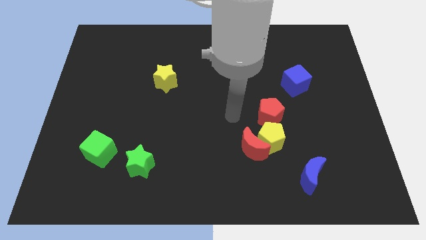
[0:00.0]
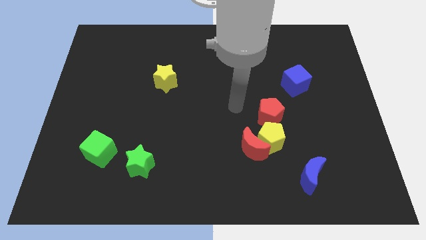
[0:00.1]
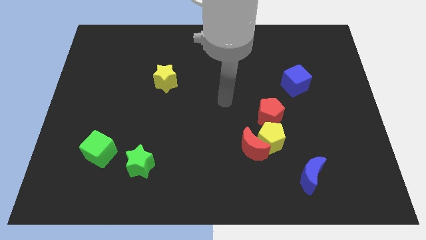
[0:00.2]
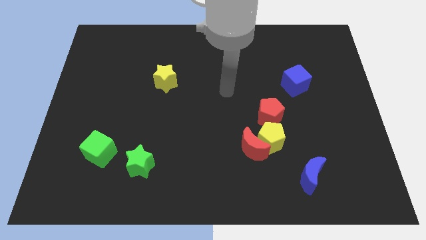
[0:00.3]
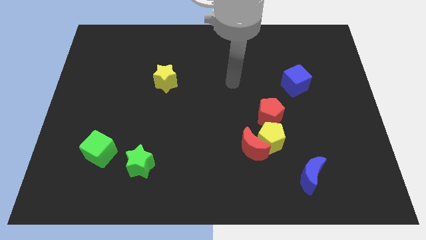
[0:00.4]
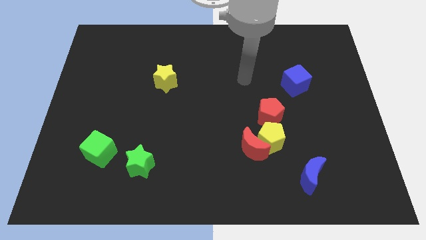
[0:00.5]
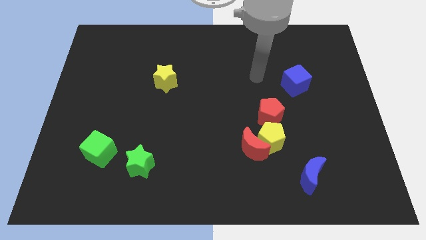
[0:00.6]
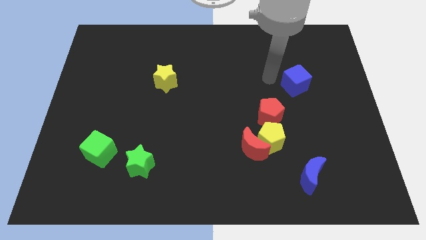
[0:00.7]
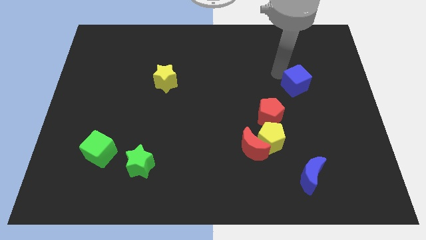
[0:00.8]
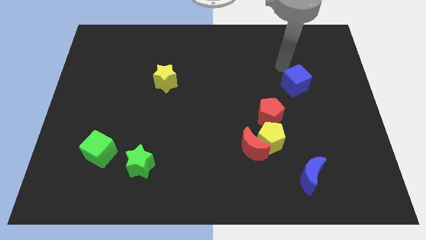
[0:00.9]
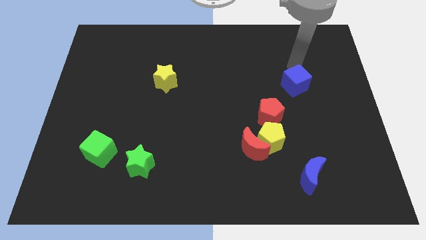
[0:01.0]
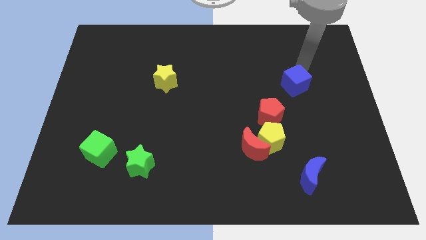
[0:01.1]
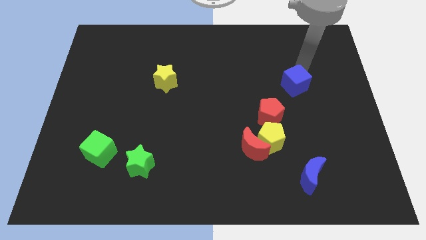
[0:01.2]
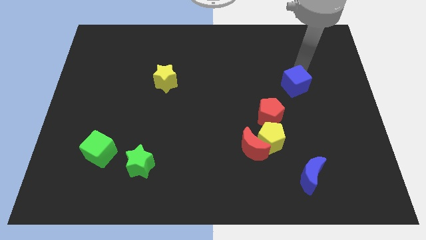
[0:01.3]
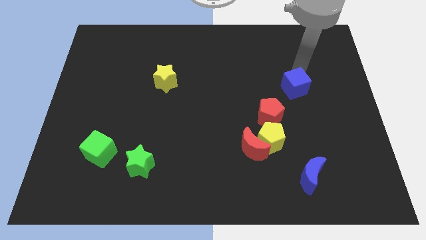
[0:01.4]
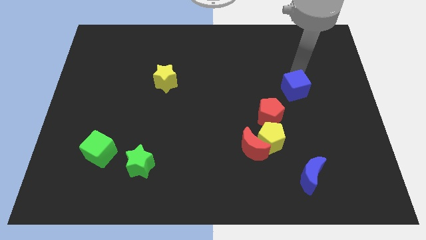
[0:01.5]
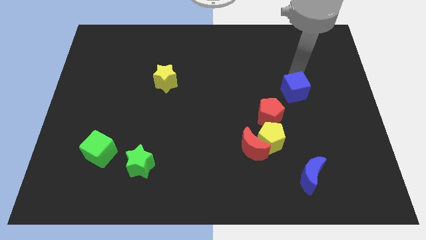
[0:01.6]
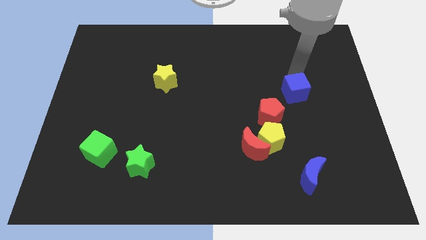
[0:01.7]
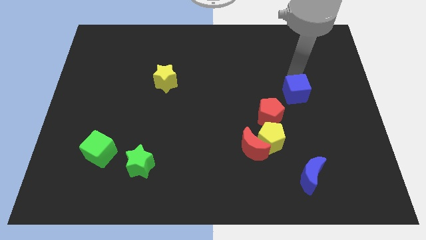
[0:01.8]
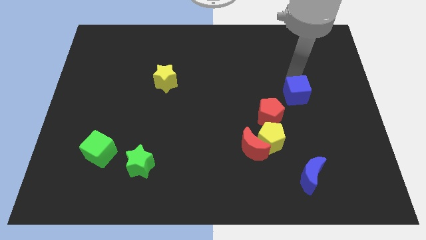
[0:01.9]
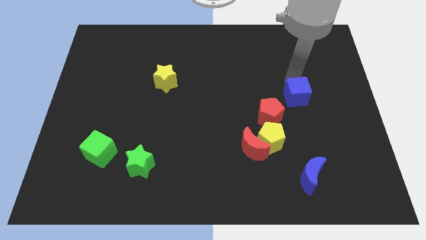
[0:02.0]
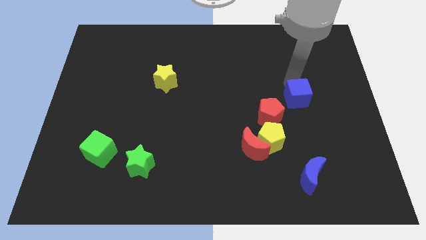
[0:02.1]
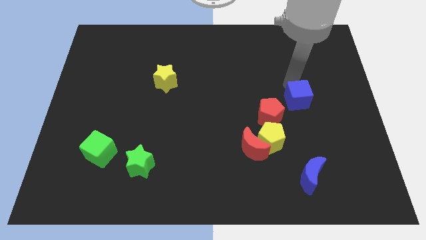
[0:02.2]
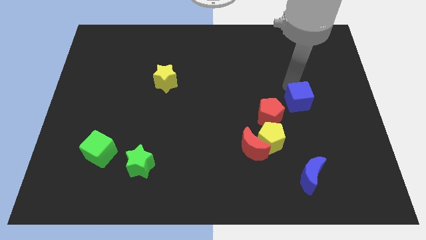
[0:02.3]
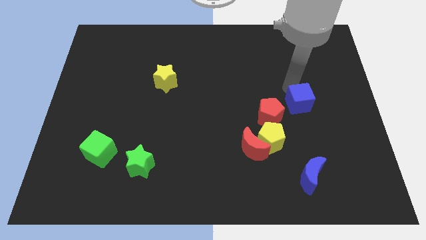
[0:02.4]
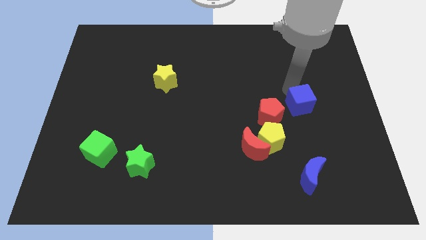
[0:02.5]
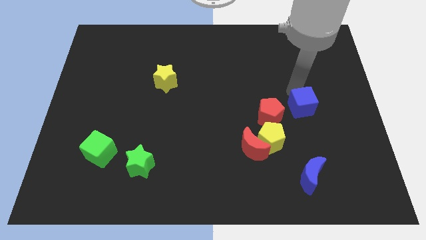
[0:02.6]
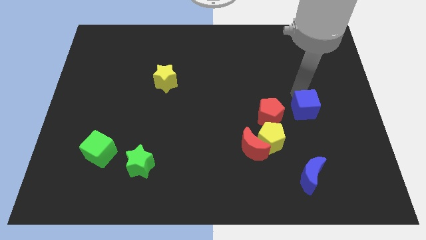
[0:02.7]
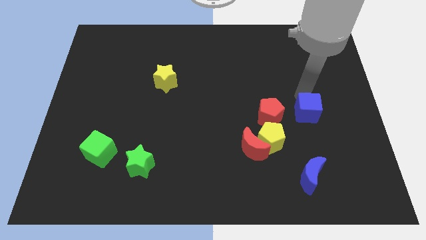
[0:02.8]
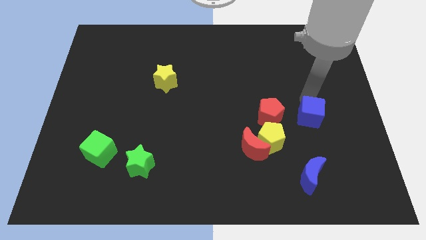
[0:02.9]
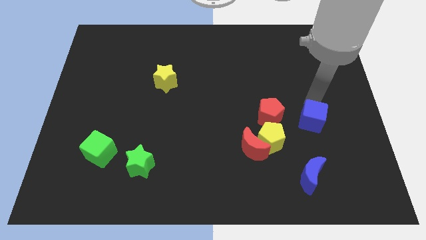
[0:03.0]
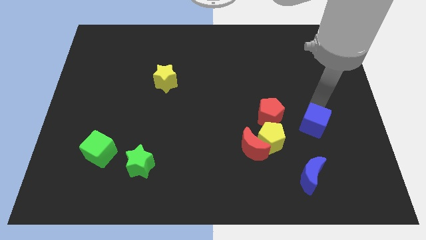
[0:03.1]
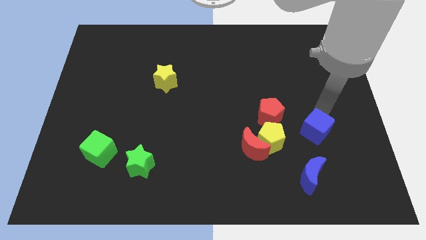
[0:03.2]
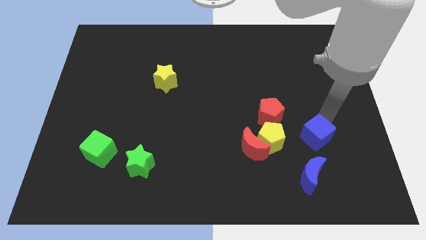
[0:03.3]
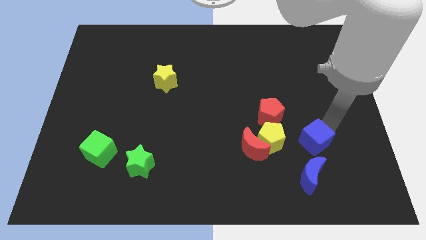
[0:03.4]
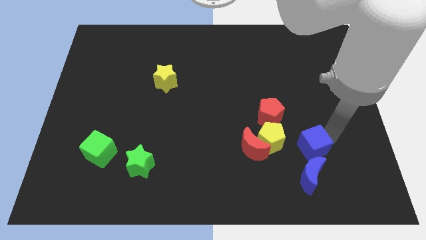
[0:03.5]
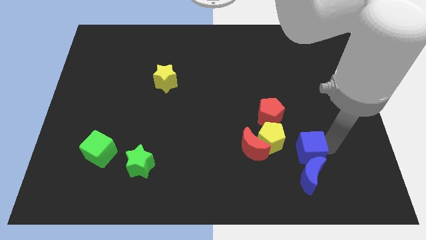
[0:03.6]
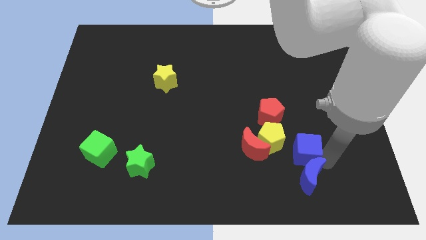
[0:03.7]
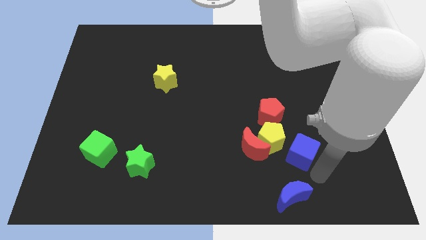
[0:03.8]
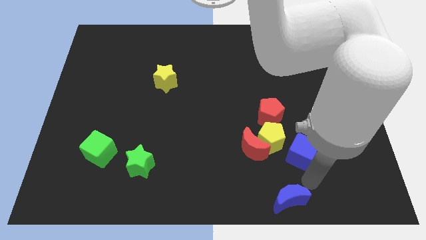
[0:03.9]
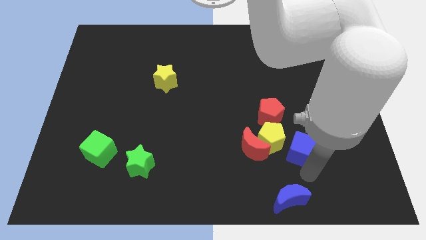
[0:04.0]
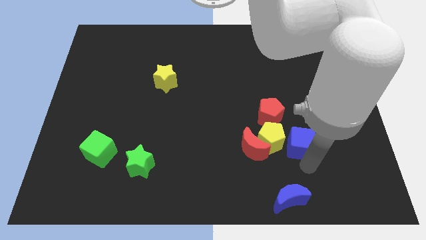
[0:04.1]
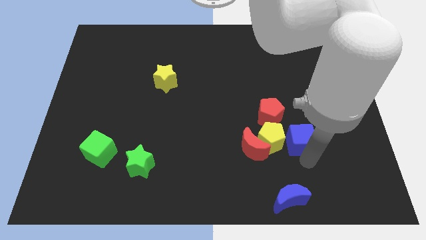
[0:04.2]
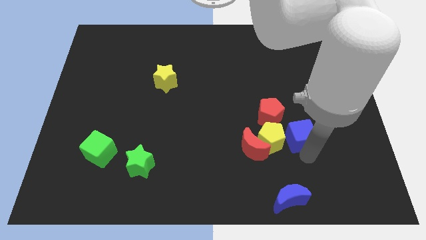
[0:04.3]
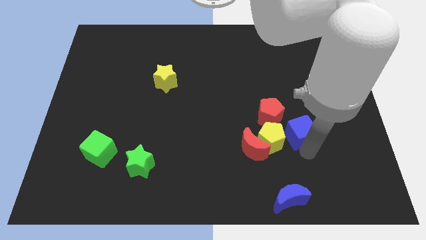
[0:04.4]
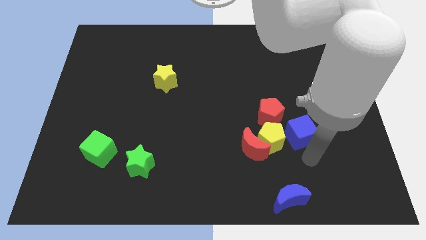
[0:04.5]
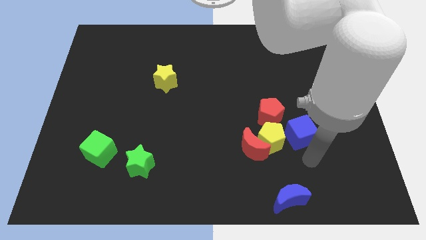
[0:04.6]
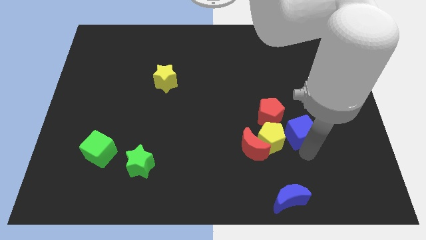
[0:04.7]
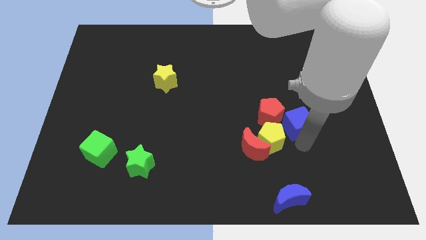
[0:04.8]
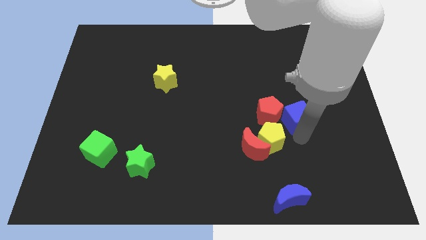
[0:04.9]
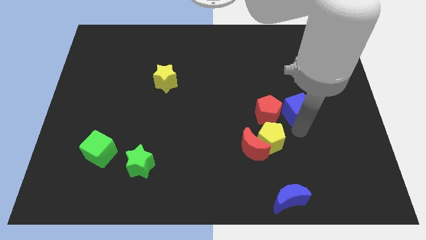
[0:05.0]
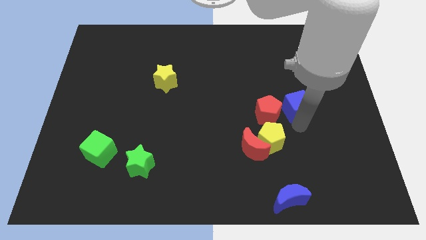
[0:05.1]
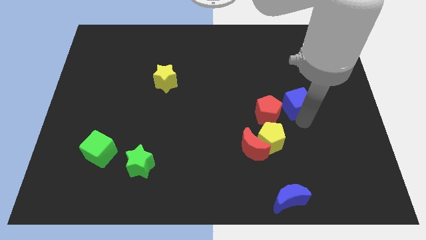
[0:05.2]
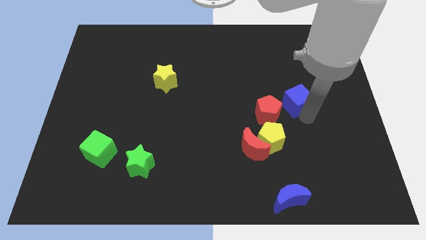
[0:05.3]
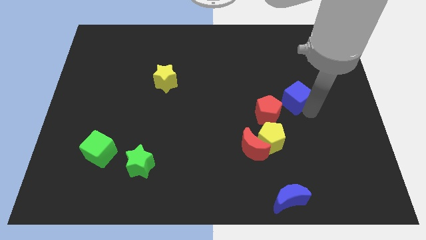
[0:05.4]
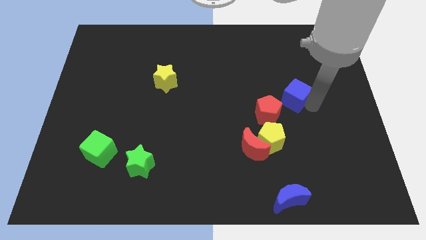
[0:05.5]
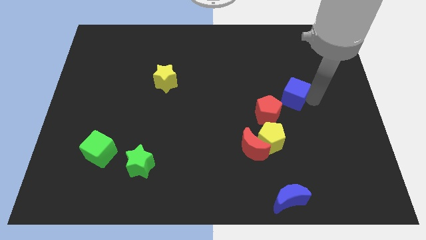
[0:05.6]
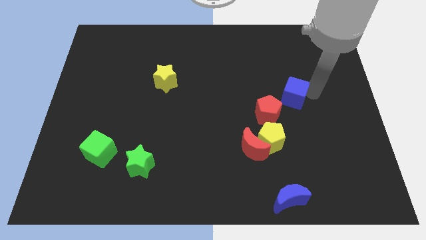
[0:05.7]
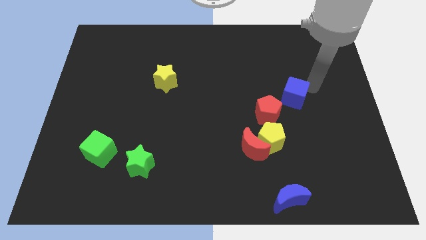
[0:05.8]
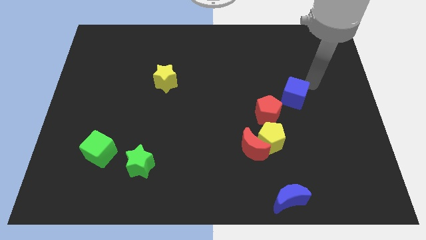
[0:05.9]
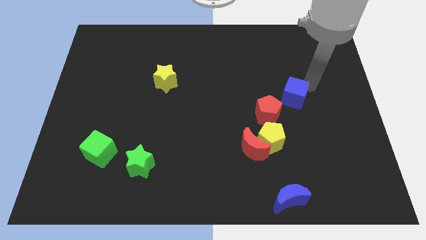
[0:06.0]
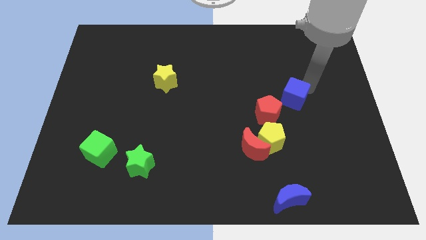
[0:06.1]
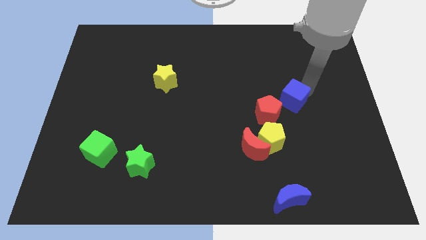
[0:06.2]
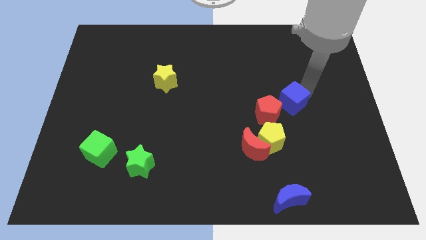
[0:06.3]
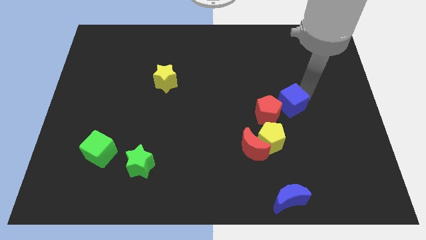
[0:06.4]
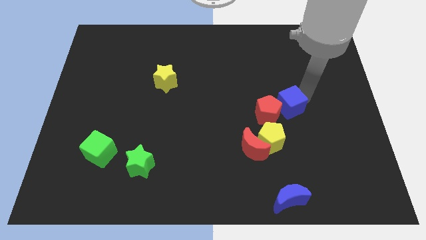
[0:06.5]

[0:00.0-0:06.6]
slide the blue cube close to the red pentagon
